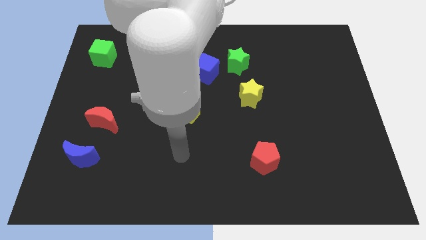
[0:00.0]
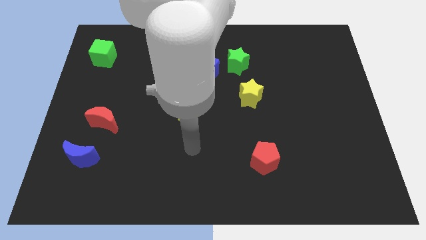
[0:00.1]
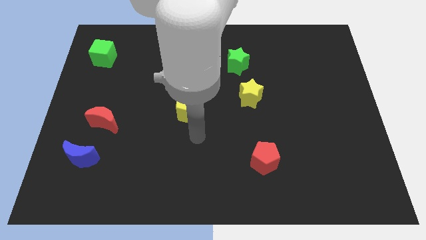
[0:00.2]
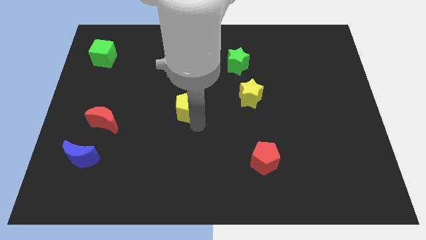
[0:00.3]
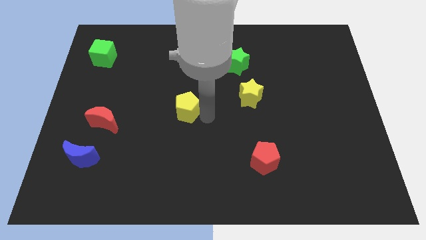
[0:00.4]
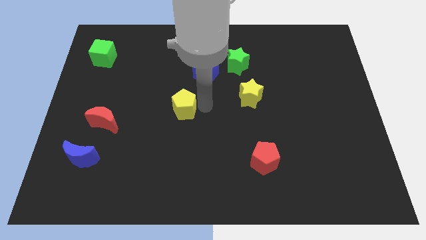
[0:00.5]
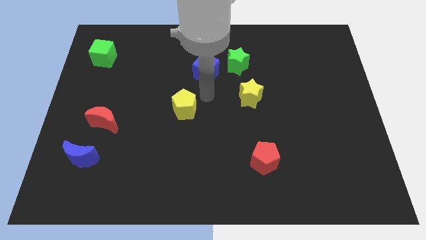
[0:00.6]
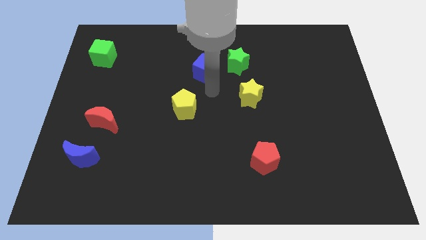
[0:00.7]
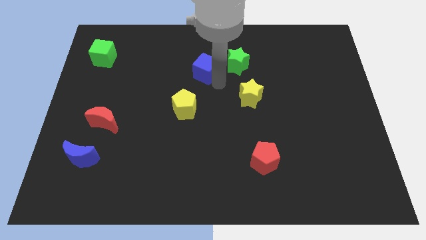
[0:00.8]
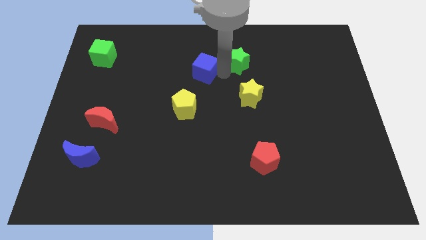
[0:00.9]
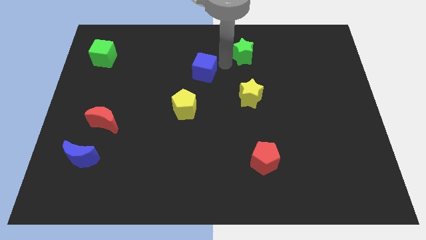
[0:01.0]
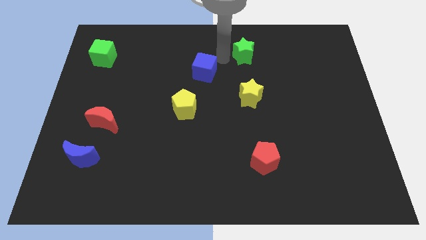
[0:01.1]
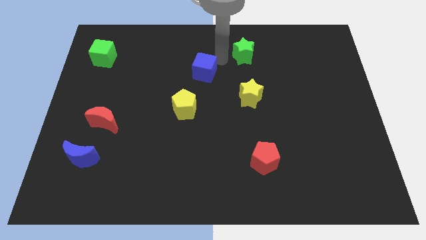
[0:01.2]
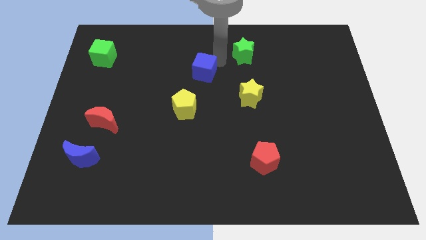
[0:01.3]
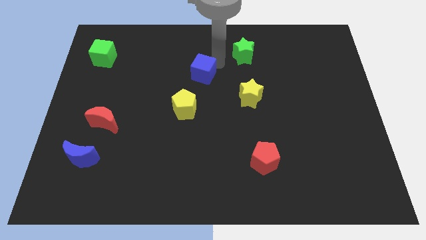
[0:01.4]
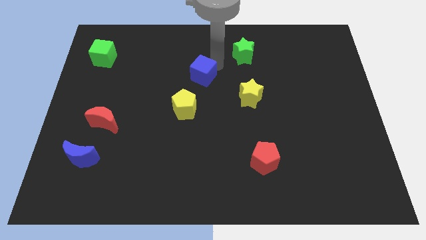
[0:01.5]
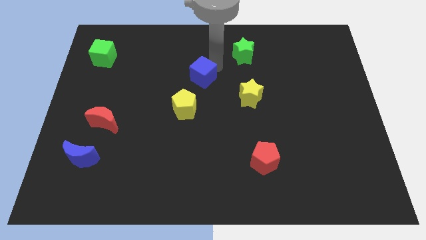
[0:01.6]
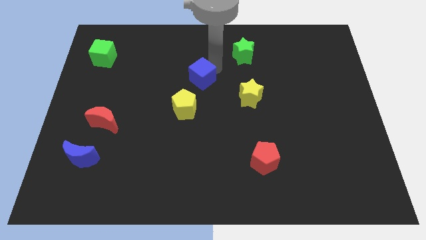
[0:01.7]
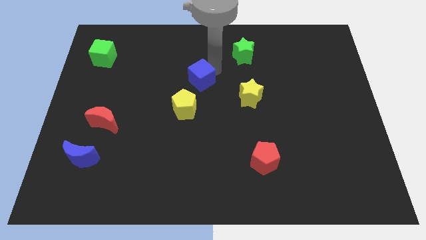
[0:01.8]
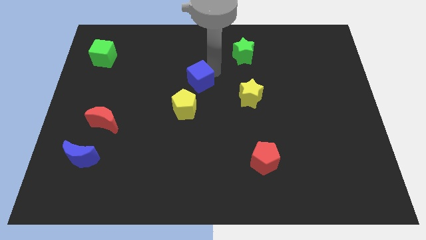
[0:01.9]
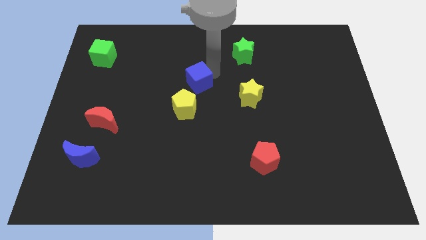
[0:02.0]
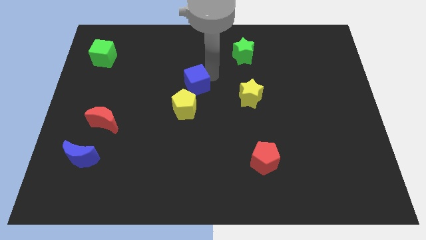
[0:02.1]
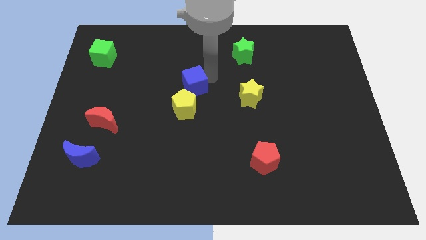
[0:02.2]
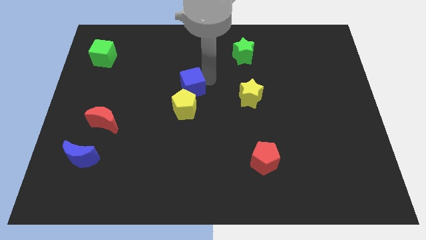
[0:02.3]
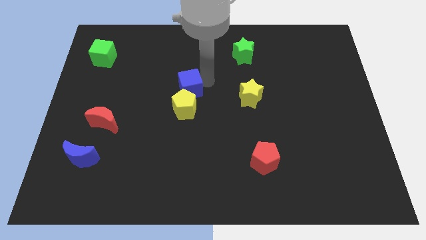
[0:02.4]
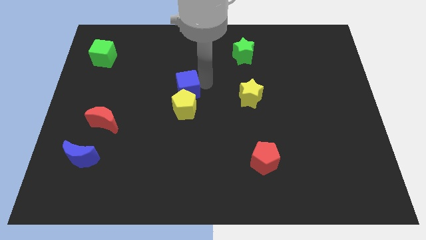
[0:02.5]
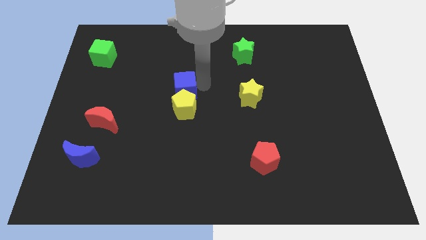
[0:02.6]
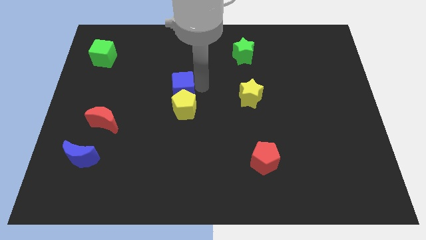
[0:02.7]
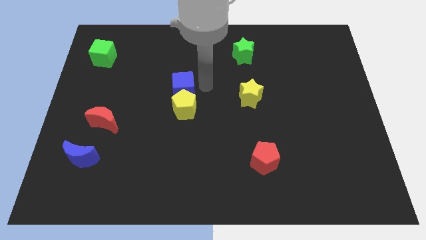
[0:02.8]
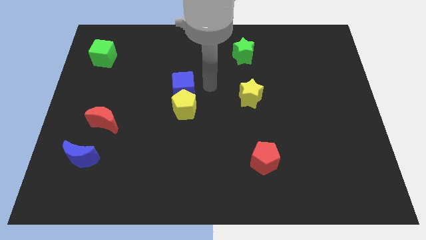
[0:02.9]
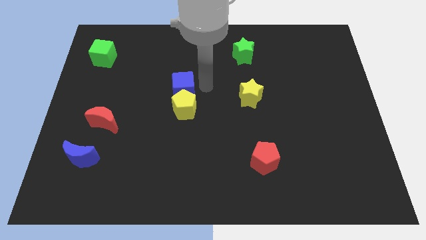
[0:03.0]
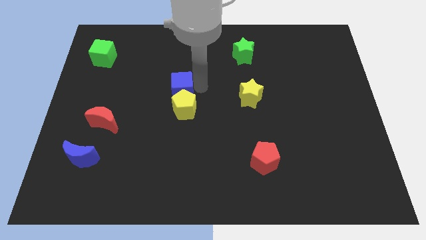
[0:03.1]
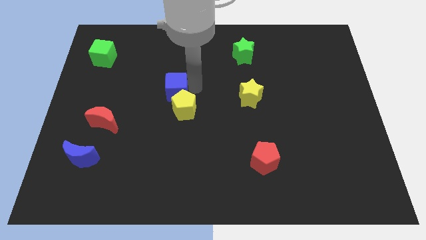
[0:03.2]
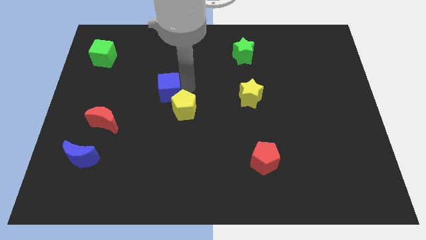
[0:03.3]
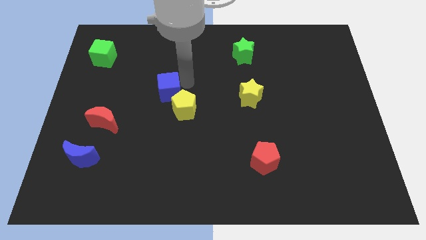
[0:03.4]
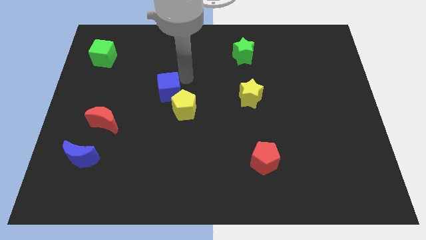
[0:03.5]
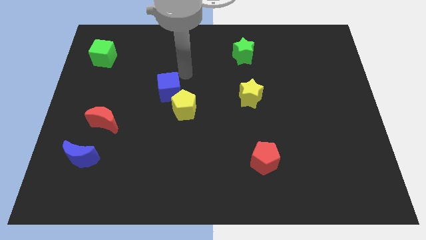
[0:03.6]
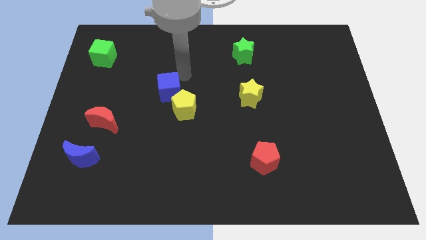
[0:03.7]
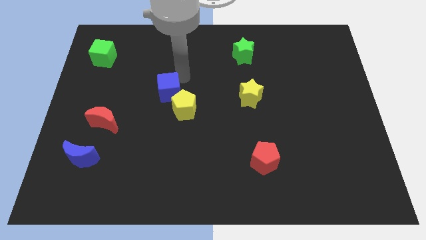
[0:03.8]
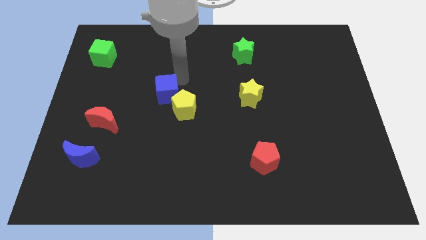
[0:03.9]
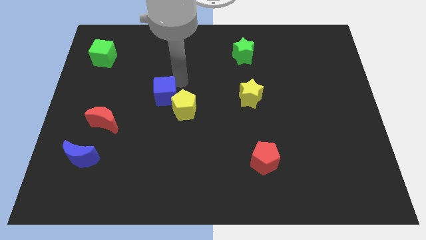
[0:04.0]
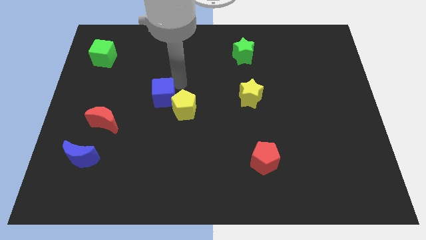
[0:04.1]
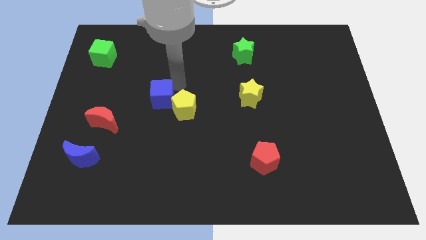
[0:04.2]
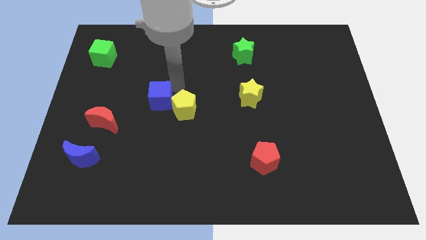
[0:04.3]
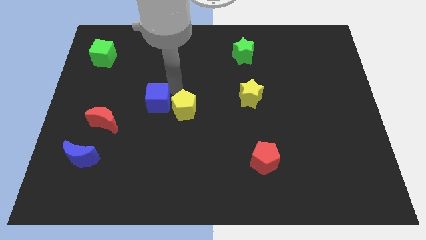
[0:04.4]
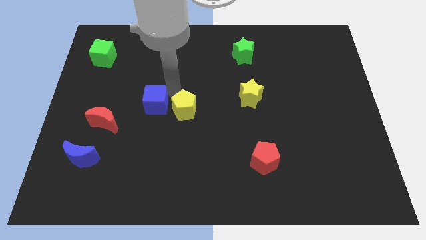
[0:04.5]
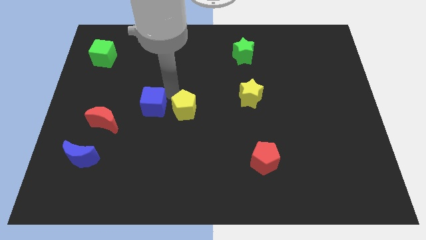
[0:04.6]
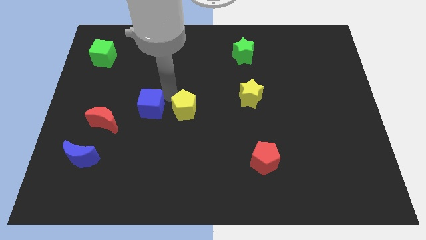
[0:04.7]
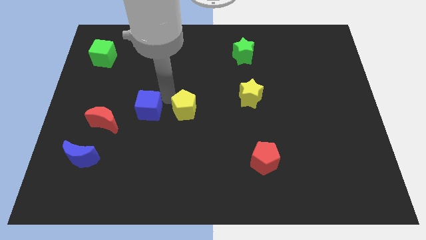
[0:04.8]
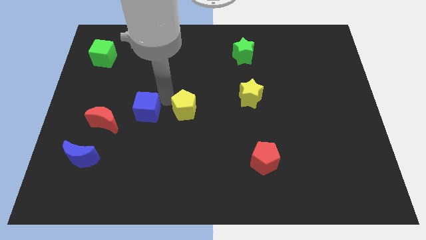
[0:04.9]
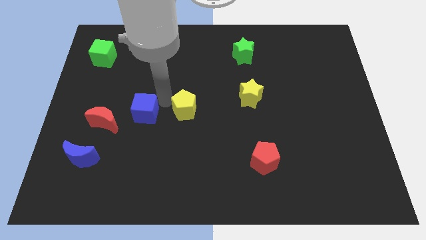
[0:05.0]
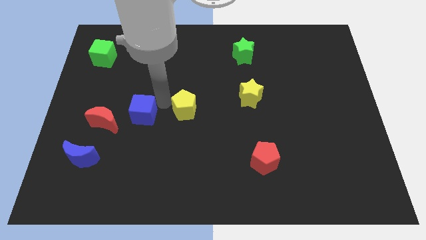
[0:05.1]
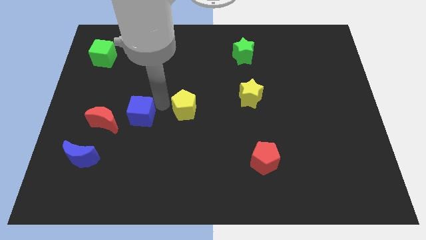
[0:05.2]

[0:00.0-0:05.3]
push the blue cube down and to the left

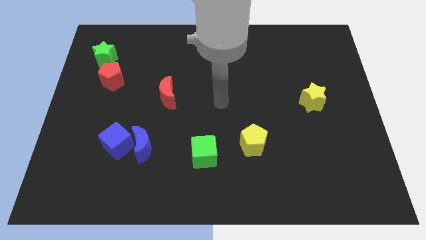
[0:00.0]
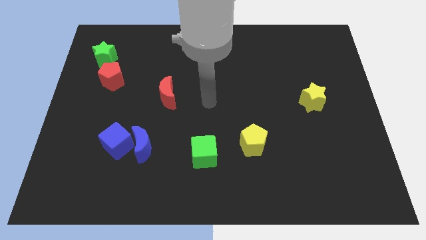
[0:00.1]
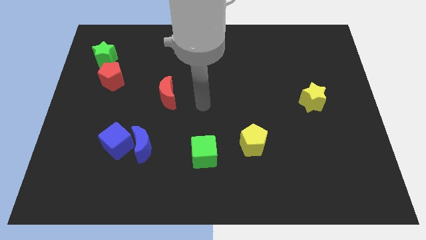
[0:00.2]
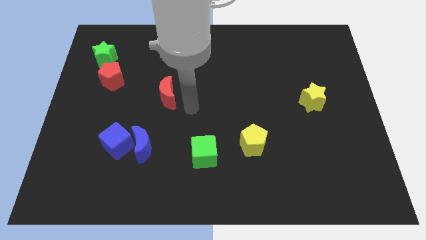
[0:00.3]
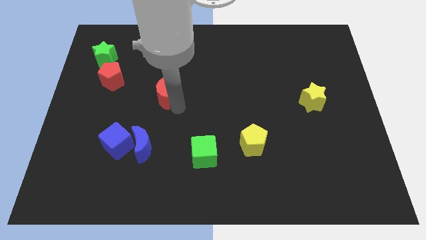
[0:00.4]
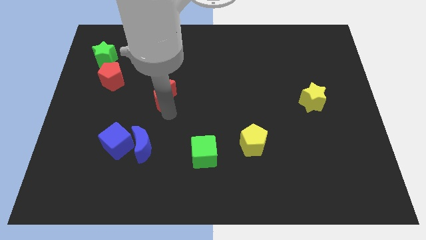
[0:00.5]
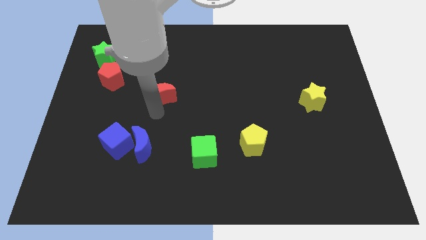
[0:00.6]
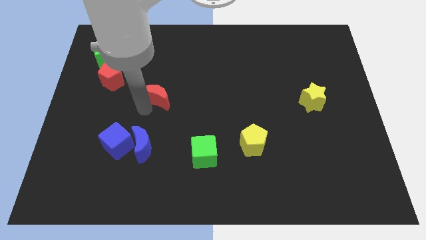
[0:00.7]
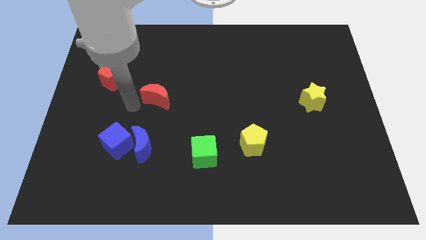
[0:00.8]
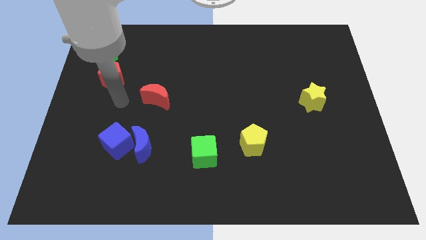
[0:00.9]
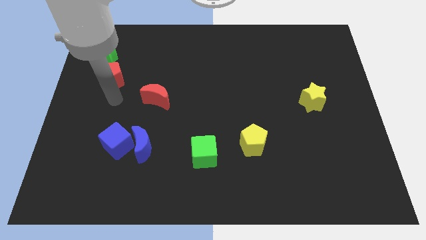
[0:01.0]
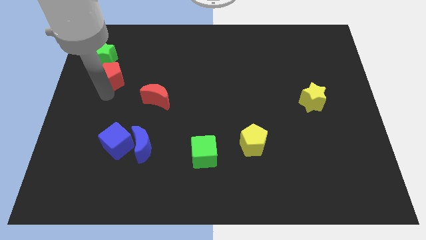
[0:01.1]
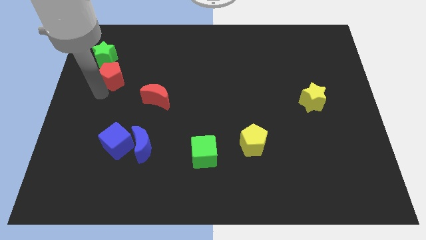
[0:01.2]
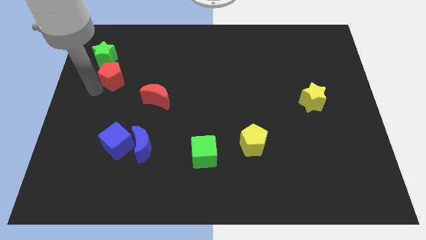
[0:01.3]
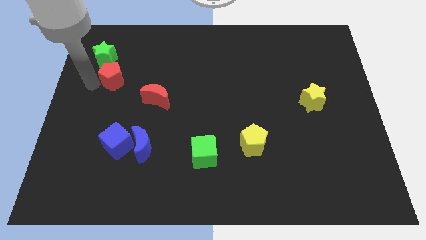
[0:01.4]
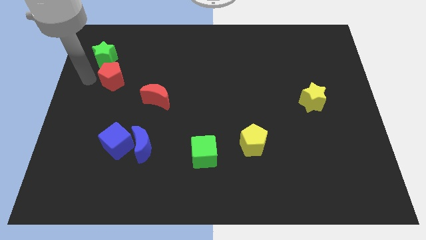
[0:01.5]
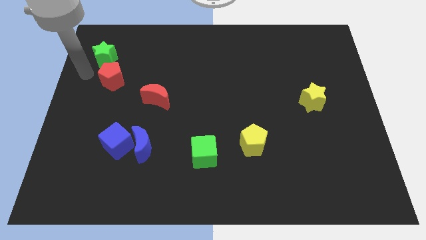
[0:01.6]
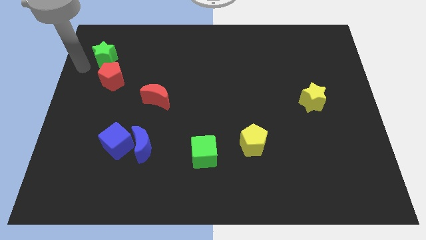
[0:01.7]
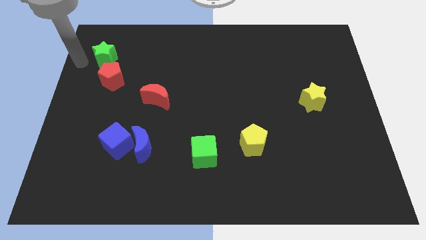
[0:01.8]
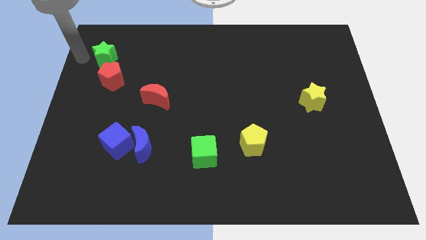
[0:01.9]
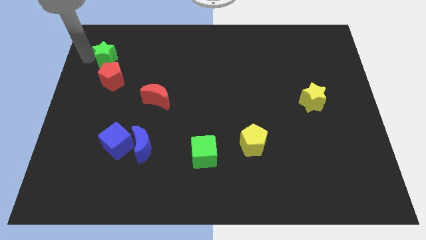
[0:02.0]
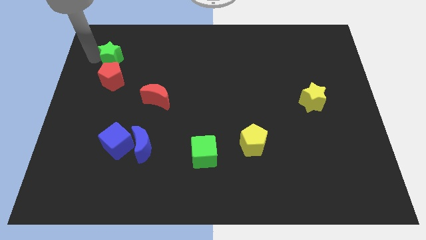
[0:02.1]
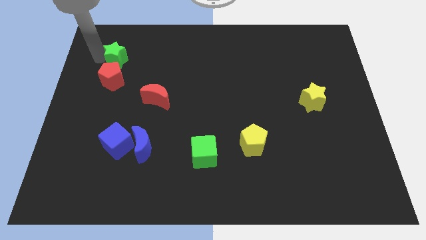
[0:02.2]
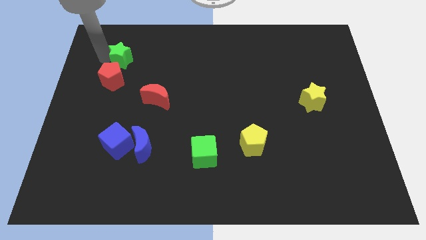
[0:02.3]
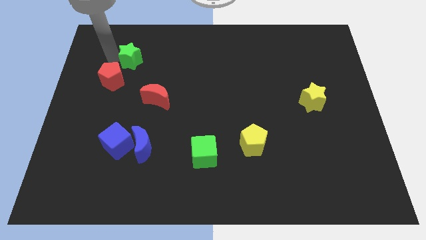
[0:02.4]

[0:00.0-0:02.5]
push the green star right a little bit
